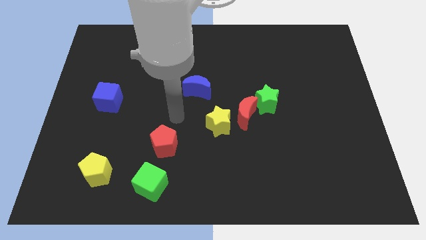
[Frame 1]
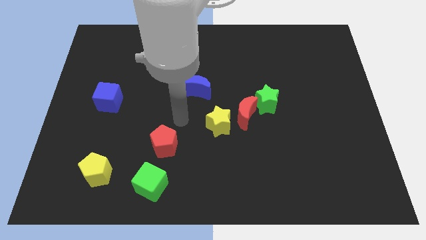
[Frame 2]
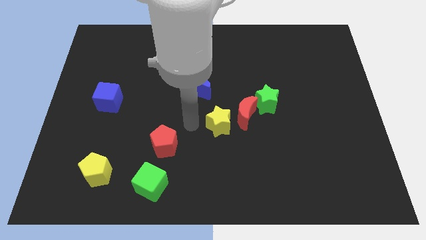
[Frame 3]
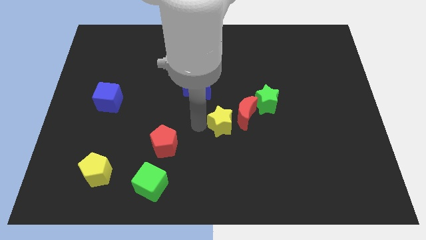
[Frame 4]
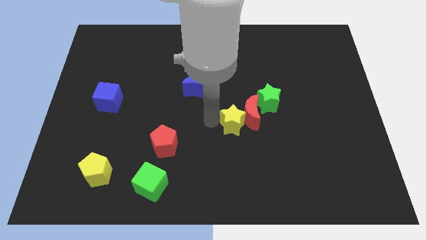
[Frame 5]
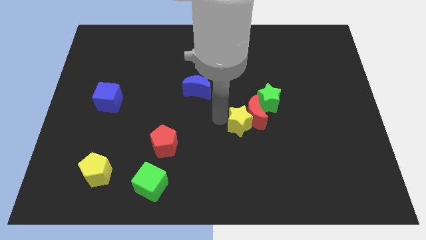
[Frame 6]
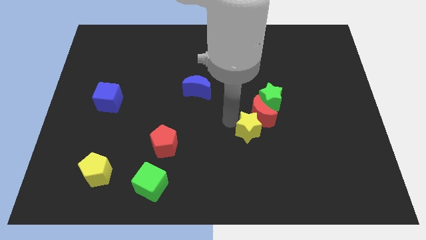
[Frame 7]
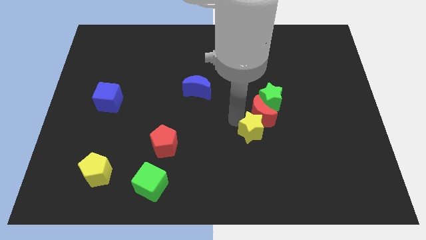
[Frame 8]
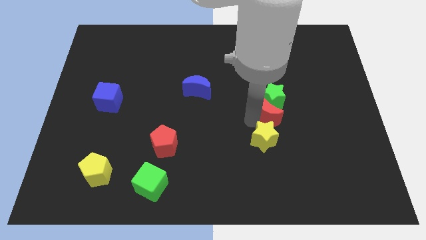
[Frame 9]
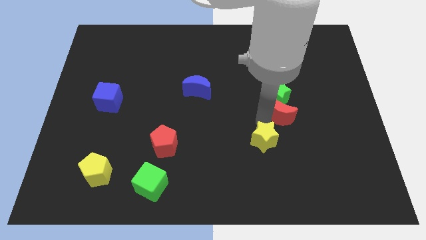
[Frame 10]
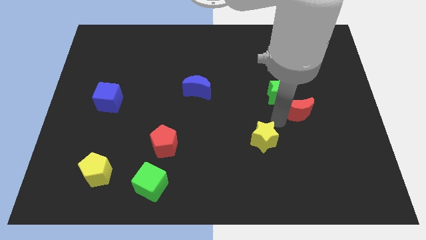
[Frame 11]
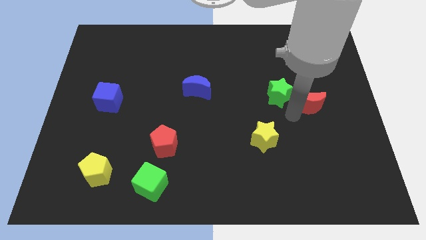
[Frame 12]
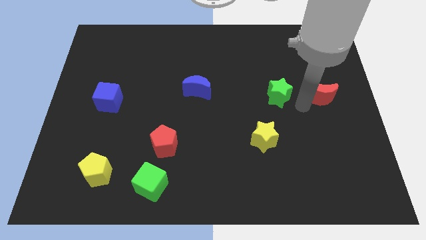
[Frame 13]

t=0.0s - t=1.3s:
pull the green star apart from the red moon

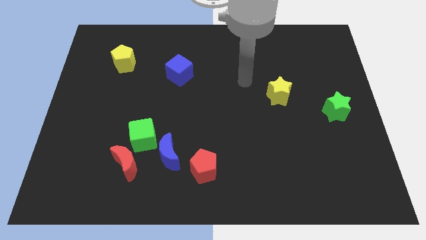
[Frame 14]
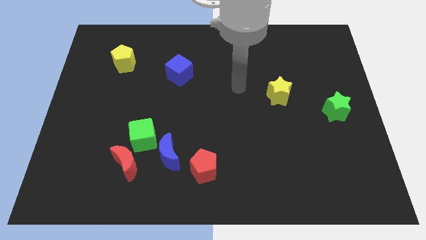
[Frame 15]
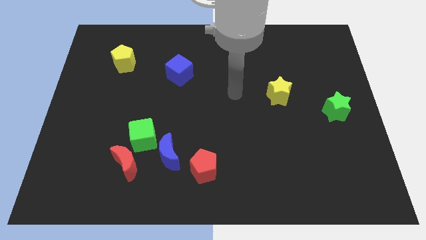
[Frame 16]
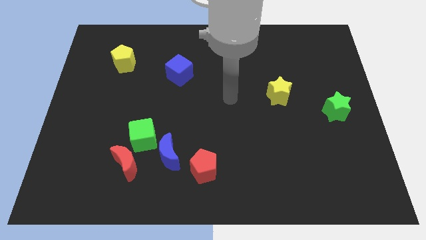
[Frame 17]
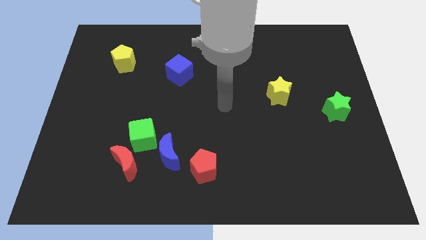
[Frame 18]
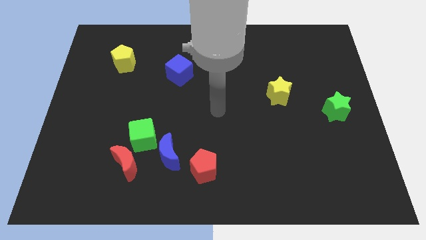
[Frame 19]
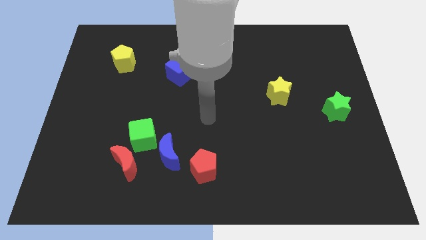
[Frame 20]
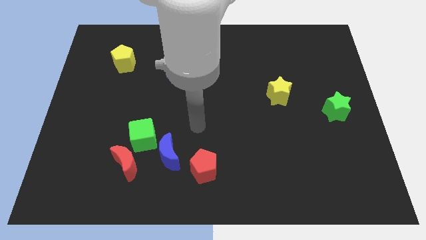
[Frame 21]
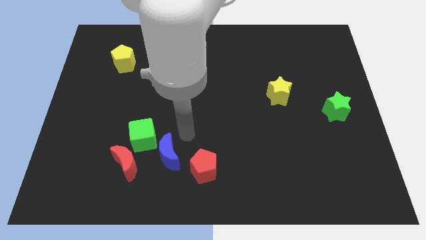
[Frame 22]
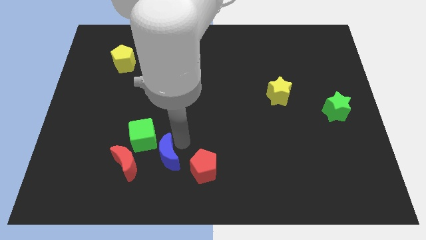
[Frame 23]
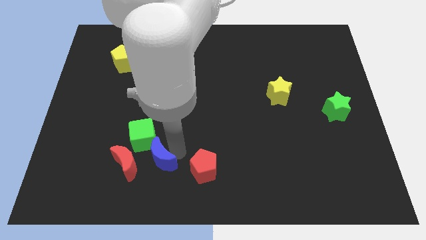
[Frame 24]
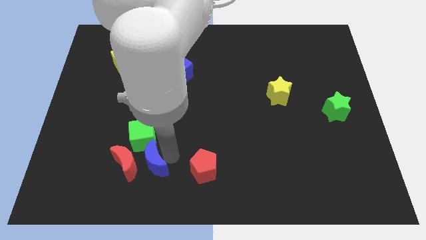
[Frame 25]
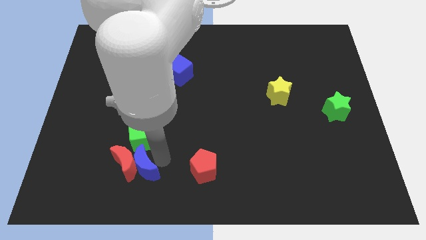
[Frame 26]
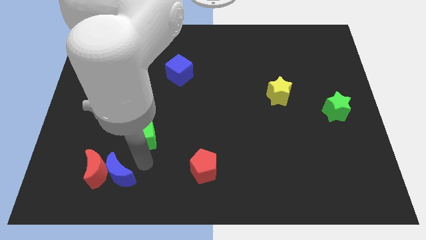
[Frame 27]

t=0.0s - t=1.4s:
separate the green cube from the red moon and blue moon

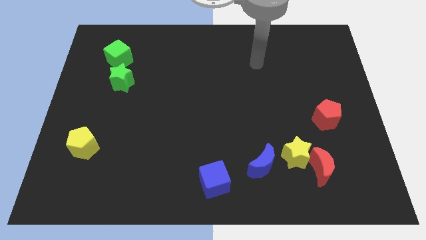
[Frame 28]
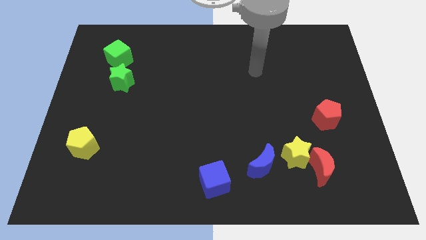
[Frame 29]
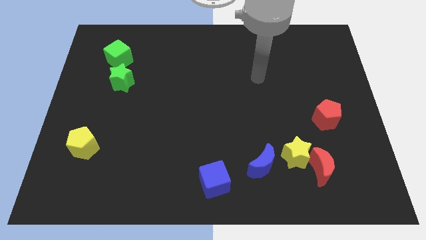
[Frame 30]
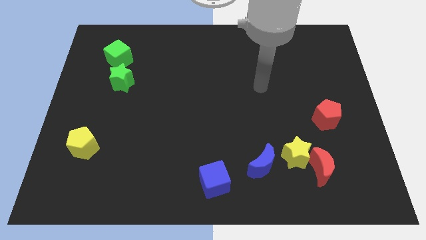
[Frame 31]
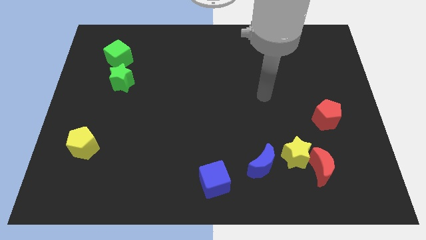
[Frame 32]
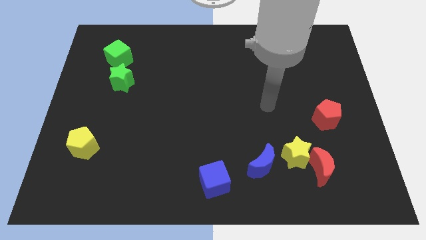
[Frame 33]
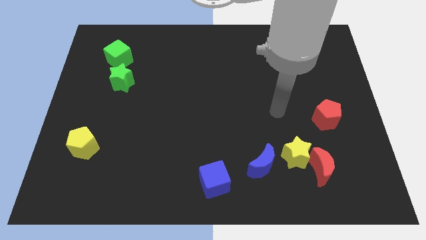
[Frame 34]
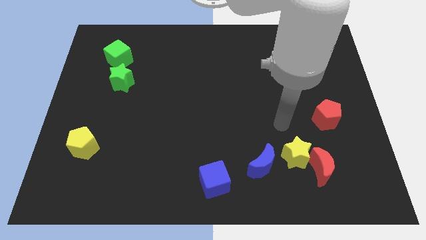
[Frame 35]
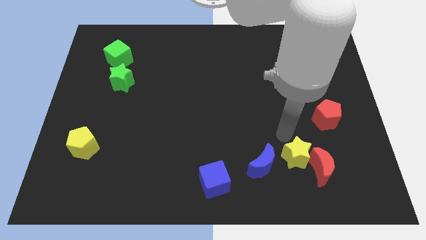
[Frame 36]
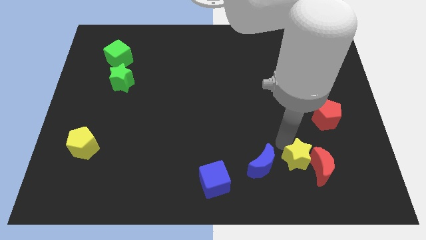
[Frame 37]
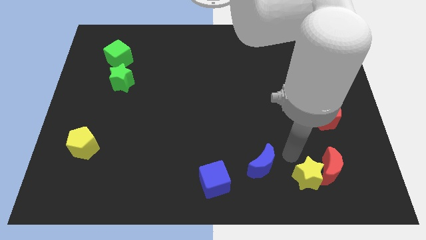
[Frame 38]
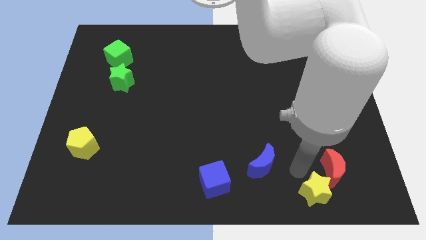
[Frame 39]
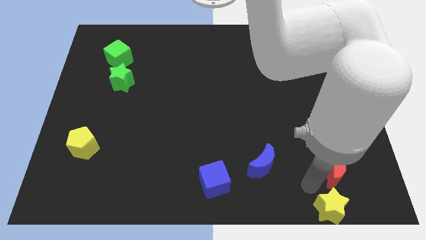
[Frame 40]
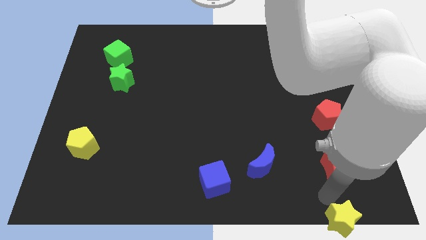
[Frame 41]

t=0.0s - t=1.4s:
pull the red moon apart from the yellow star

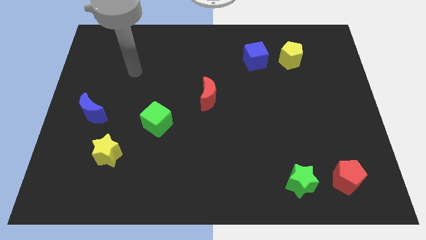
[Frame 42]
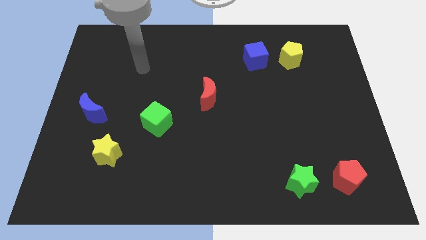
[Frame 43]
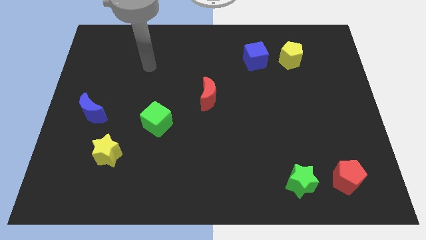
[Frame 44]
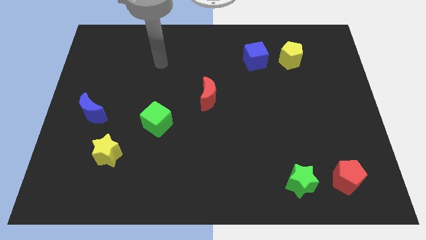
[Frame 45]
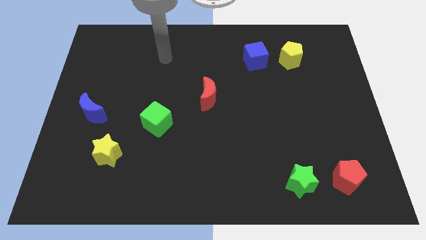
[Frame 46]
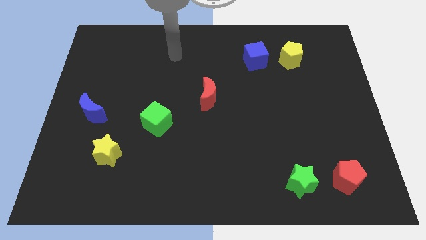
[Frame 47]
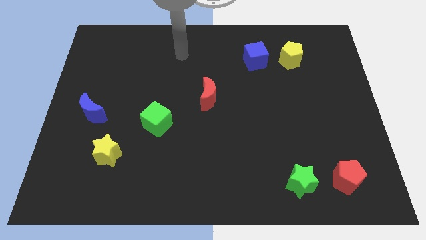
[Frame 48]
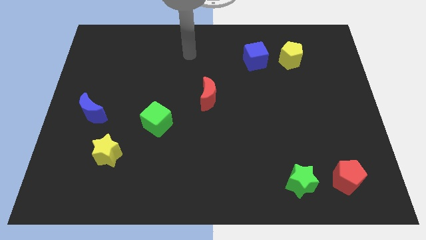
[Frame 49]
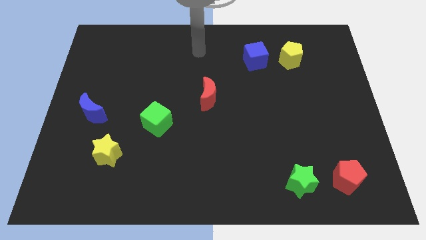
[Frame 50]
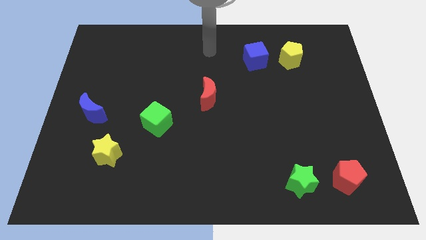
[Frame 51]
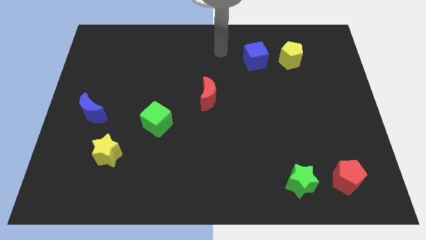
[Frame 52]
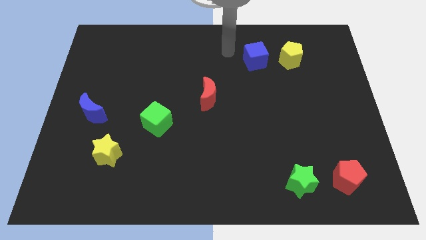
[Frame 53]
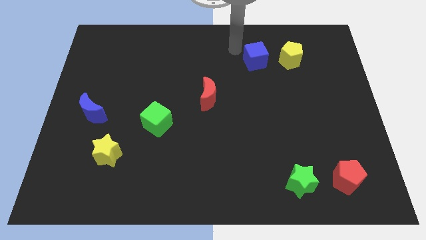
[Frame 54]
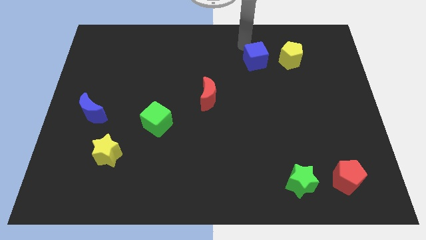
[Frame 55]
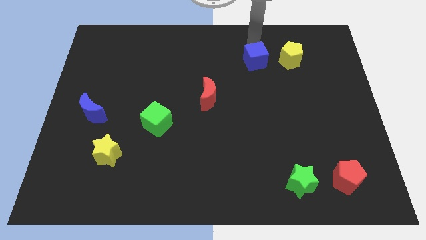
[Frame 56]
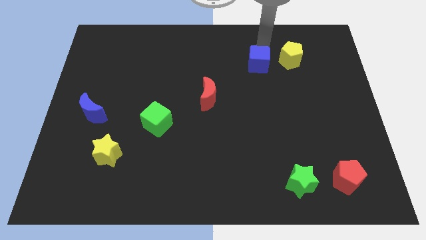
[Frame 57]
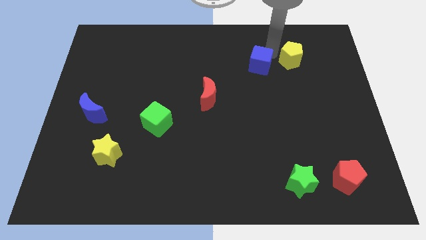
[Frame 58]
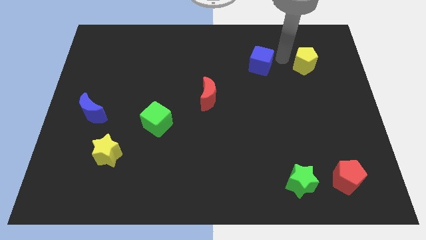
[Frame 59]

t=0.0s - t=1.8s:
pull the blue cube apart from the yellow pentagon

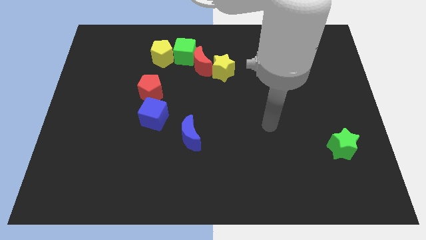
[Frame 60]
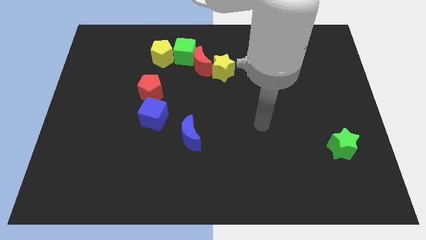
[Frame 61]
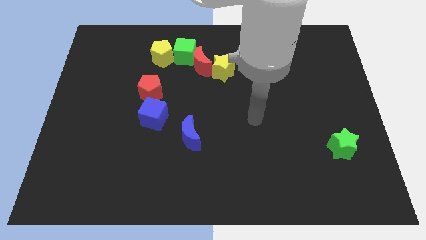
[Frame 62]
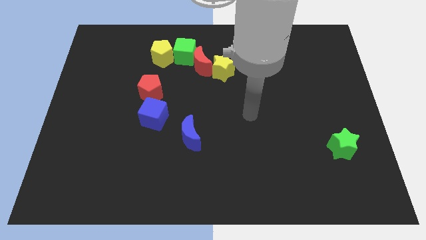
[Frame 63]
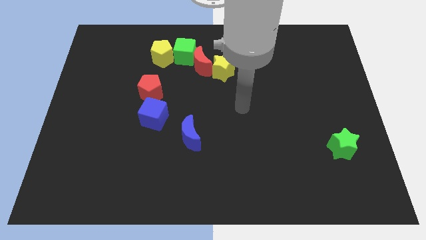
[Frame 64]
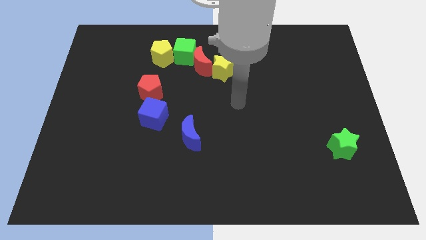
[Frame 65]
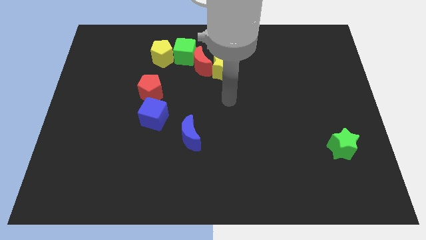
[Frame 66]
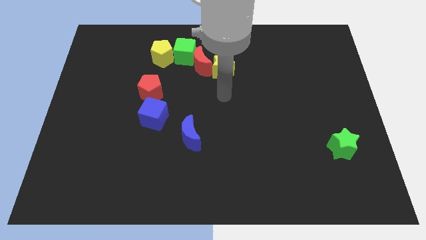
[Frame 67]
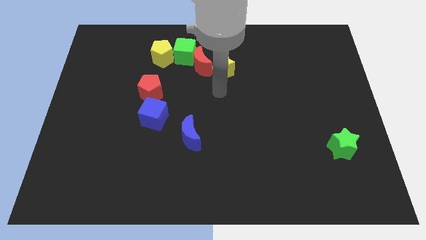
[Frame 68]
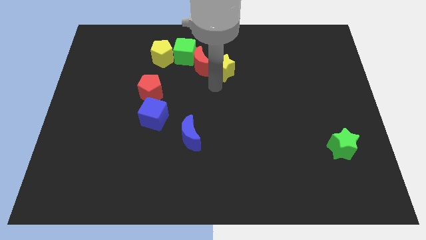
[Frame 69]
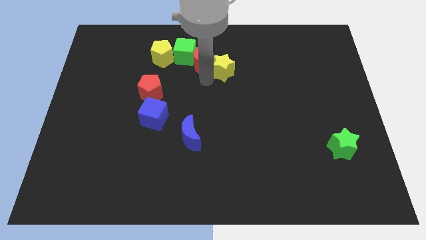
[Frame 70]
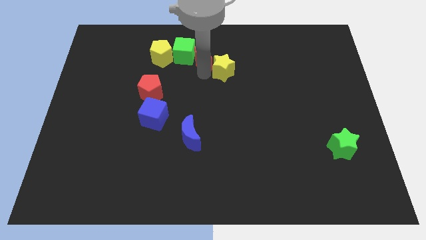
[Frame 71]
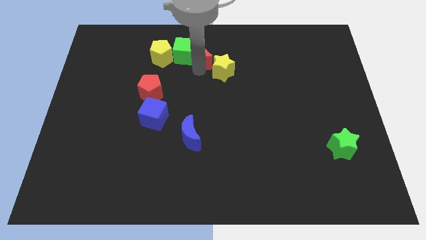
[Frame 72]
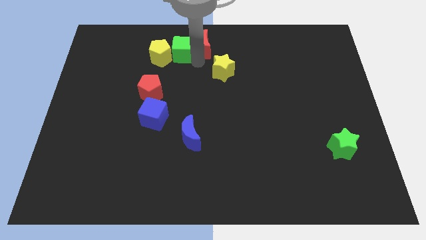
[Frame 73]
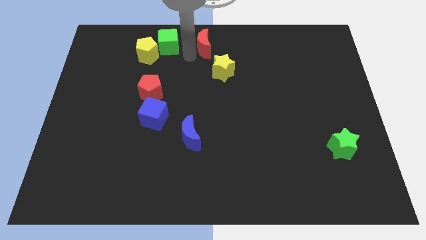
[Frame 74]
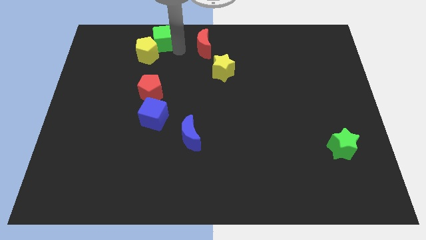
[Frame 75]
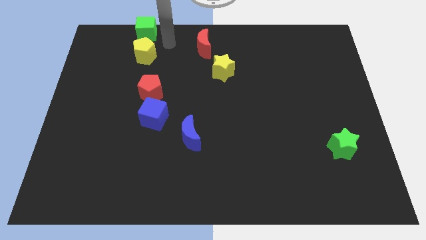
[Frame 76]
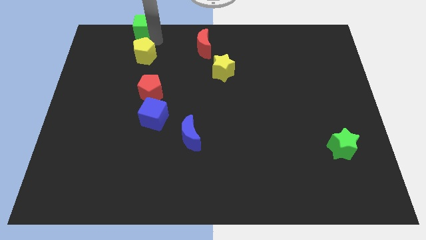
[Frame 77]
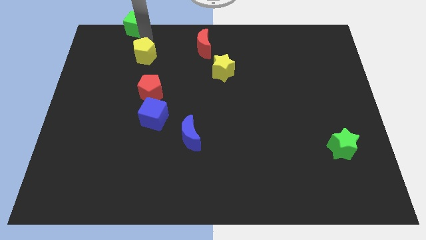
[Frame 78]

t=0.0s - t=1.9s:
pull the yellow pentagon apart from the green cube

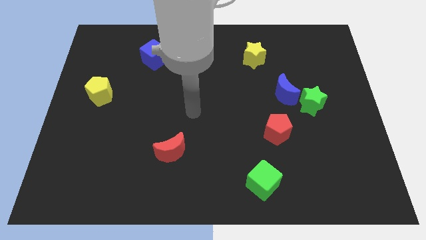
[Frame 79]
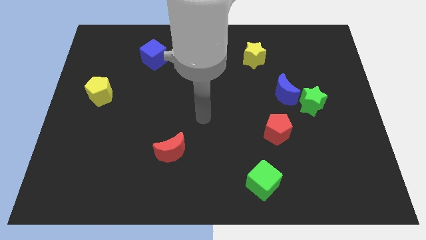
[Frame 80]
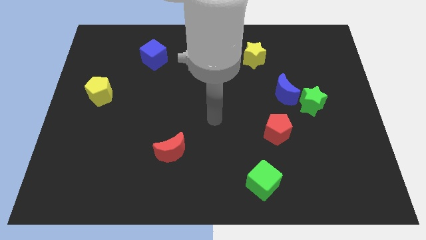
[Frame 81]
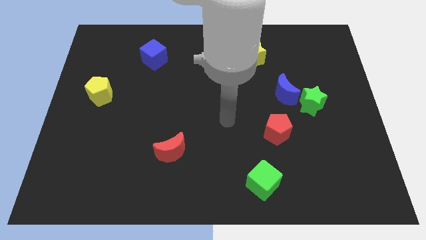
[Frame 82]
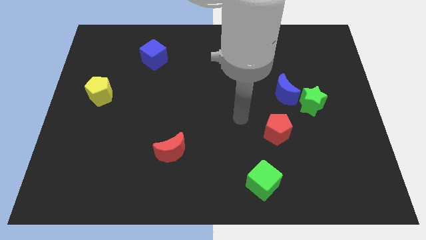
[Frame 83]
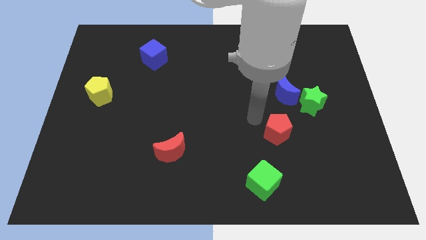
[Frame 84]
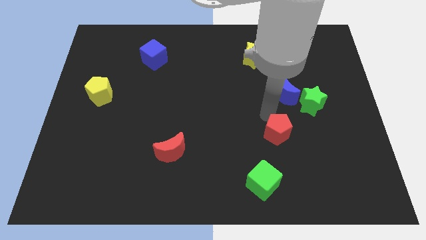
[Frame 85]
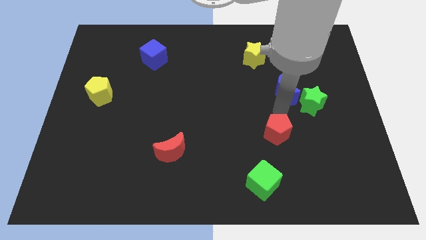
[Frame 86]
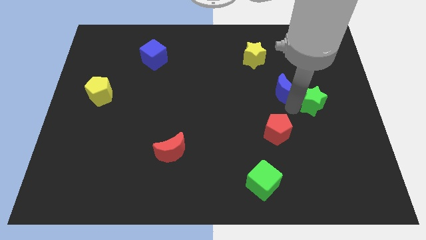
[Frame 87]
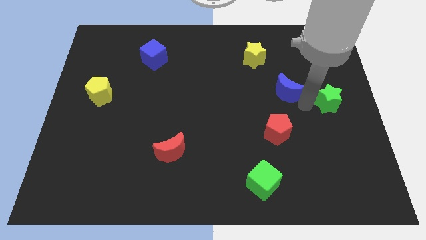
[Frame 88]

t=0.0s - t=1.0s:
separate the blue moon from the green star

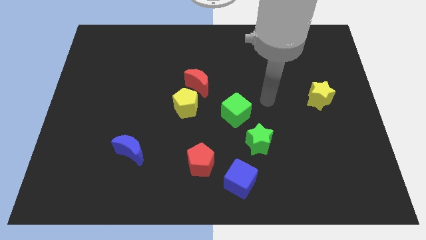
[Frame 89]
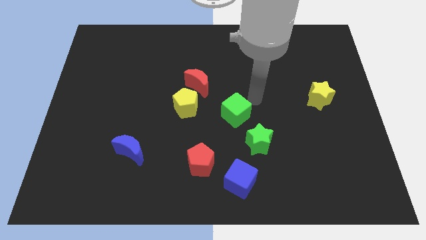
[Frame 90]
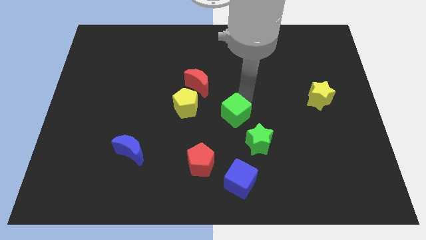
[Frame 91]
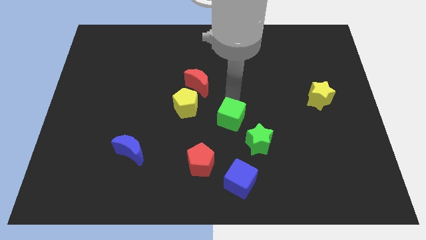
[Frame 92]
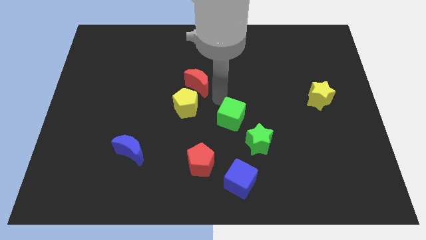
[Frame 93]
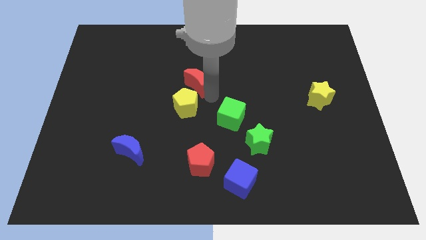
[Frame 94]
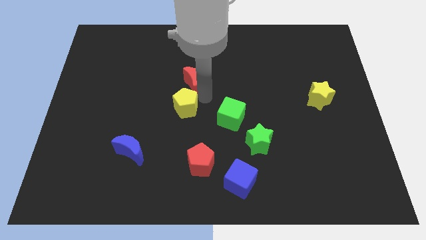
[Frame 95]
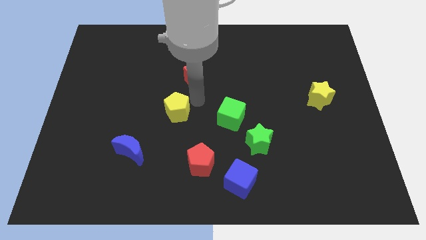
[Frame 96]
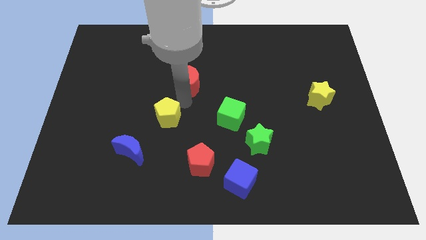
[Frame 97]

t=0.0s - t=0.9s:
move the red moon away from the yellow pentagon
